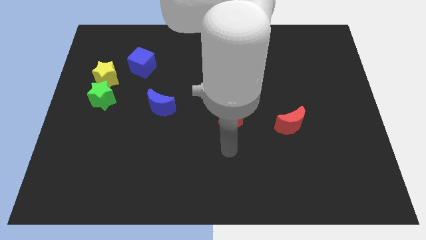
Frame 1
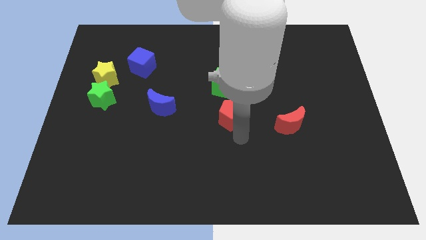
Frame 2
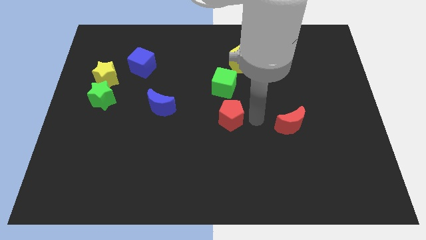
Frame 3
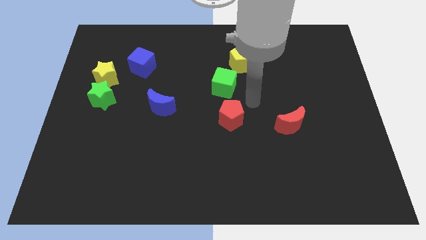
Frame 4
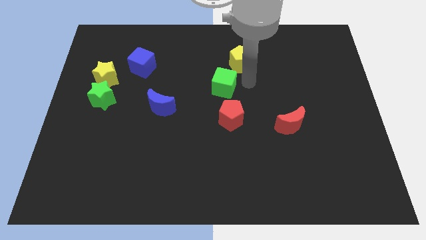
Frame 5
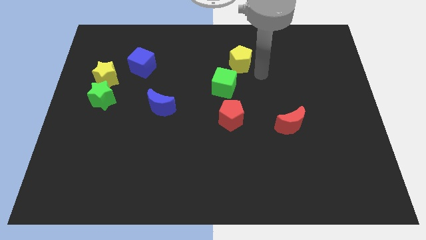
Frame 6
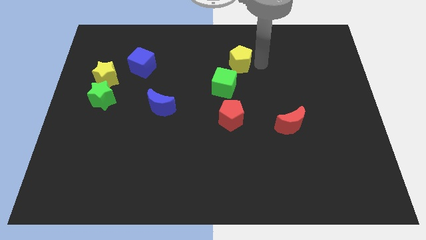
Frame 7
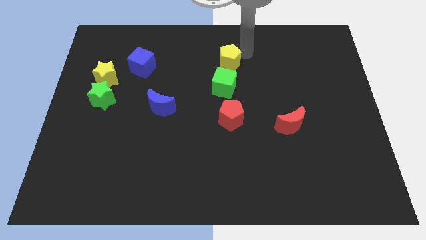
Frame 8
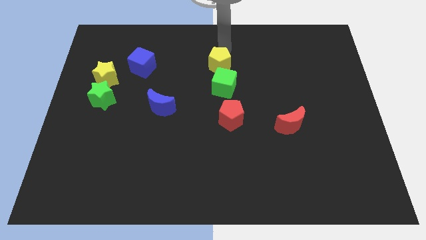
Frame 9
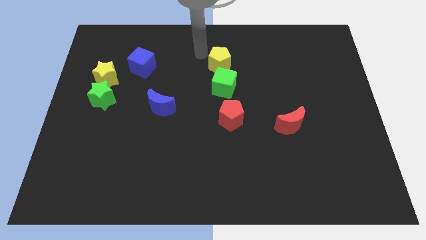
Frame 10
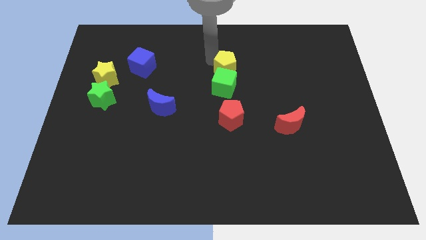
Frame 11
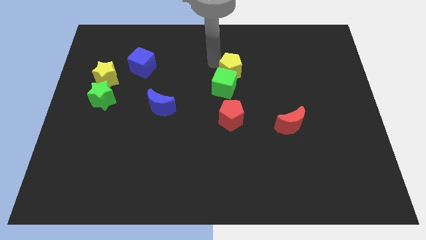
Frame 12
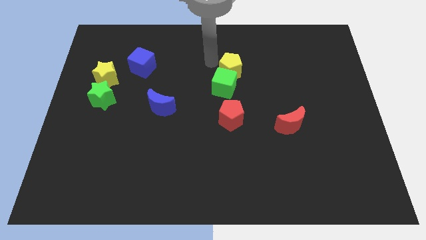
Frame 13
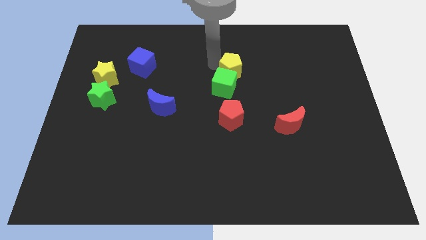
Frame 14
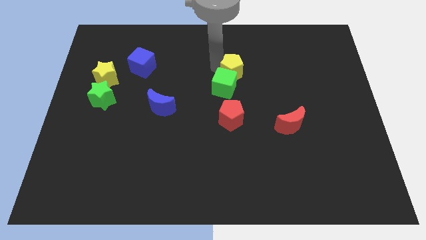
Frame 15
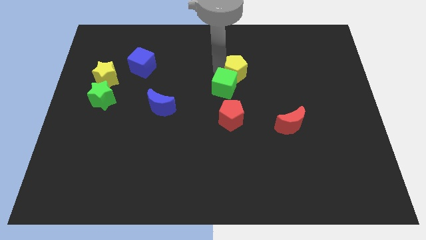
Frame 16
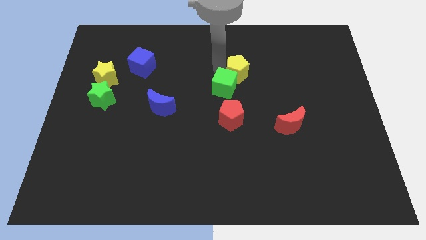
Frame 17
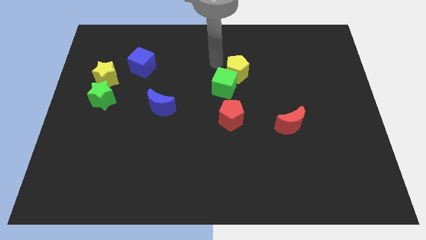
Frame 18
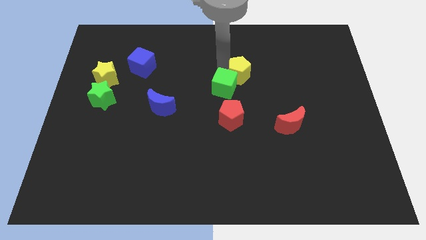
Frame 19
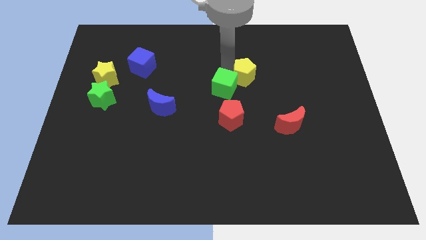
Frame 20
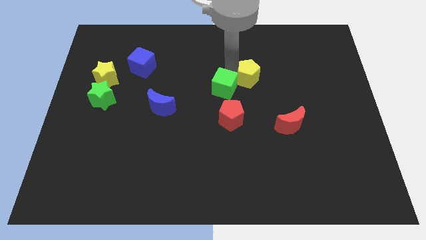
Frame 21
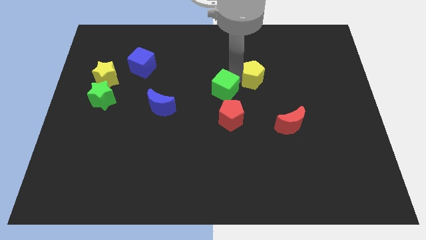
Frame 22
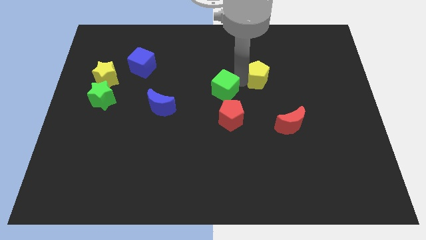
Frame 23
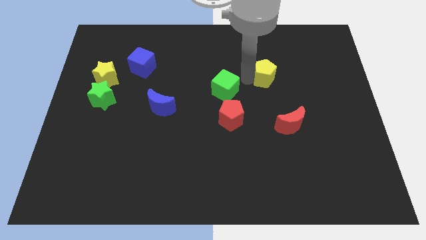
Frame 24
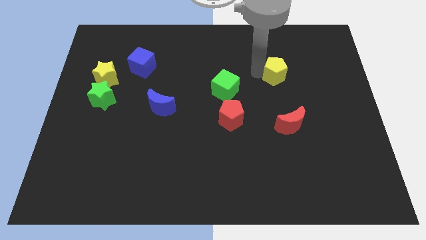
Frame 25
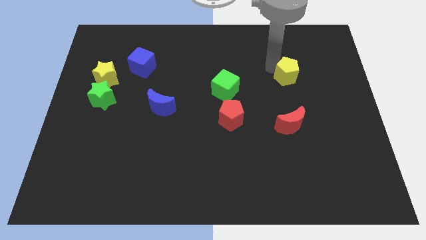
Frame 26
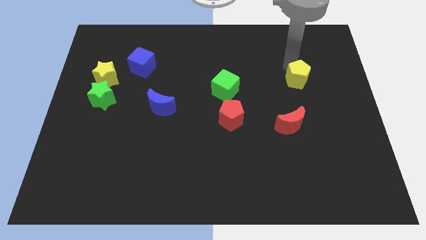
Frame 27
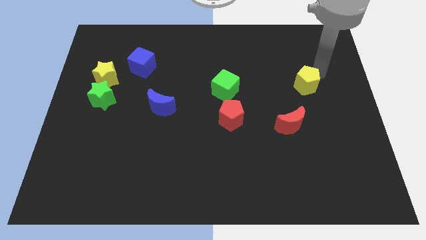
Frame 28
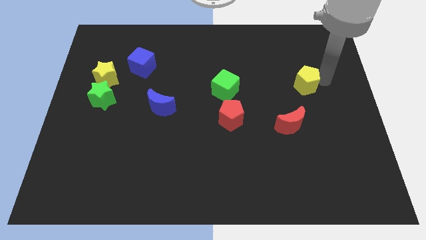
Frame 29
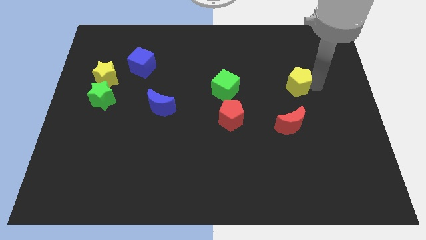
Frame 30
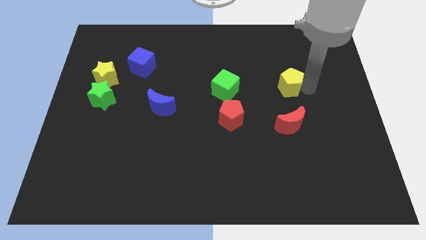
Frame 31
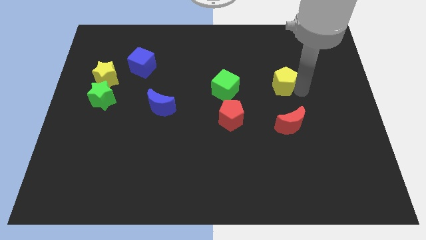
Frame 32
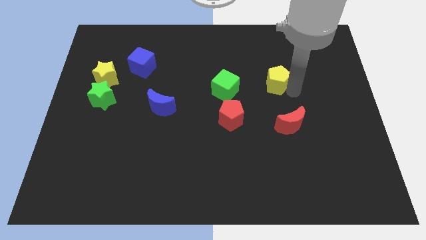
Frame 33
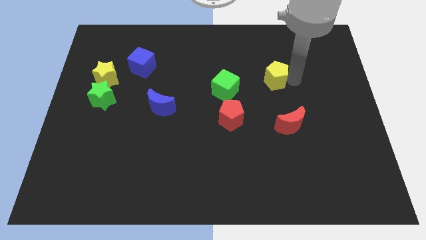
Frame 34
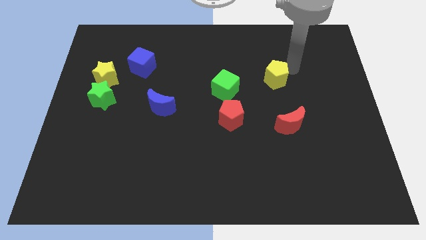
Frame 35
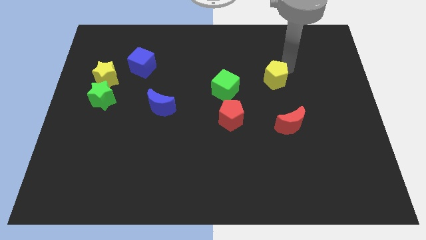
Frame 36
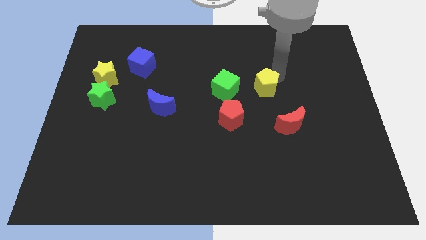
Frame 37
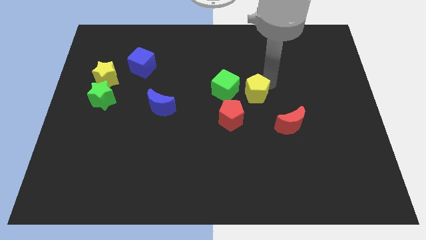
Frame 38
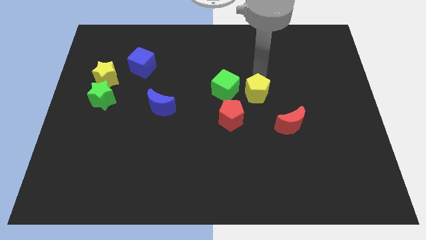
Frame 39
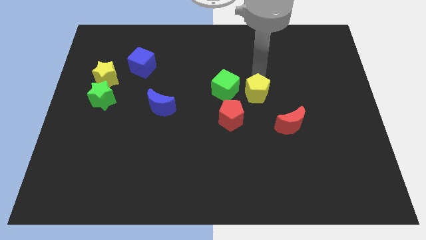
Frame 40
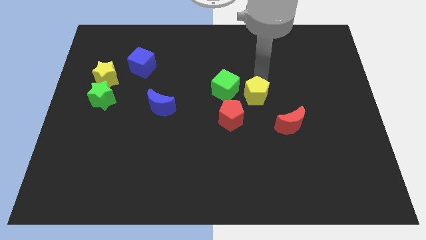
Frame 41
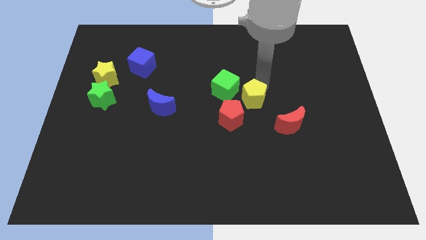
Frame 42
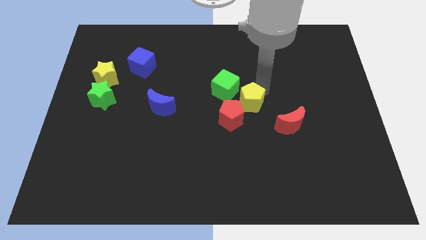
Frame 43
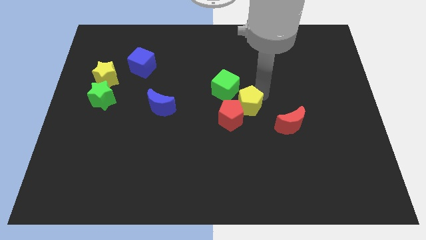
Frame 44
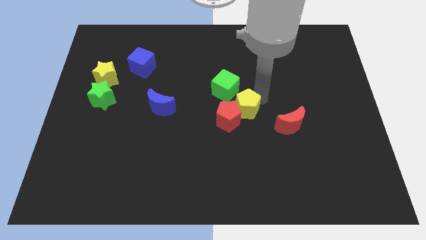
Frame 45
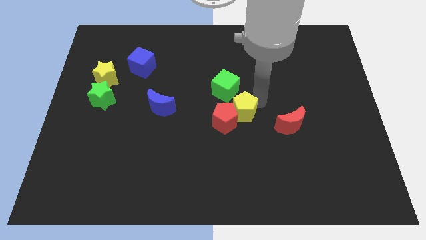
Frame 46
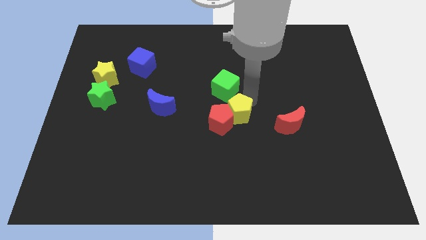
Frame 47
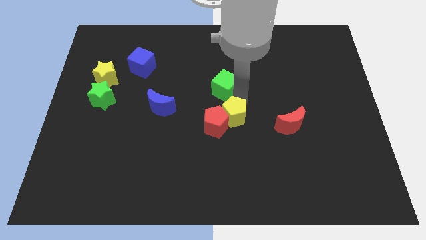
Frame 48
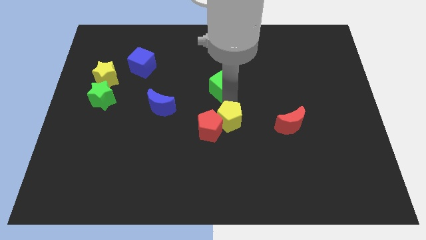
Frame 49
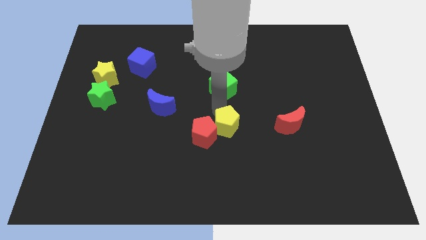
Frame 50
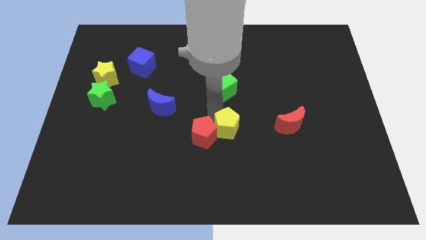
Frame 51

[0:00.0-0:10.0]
slide the yellow pentagon downwards

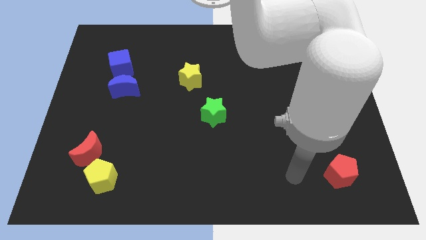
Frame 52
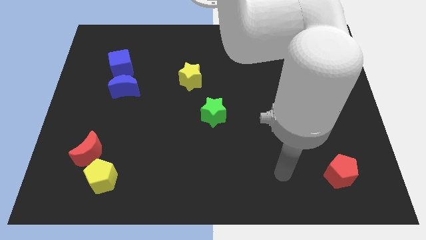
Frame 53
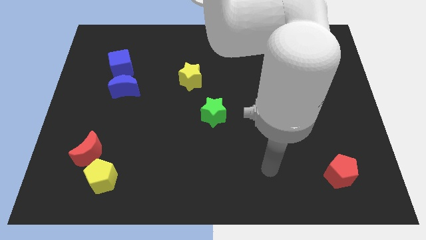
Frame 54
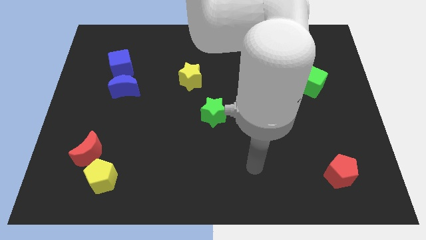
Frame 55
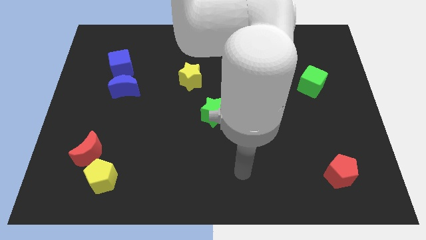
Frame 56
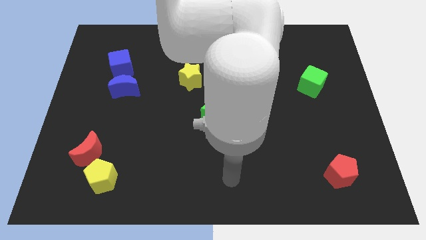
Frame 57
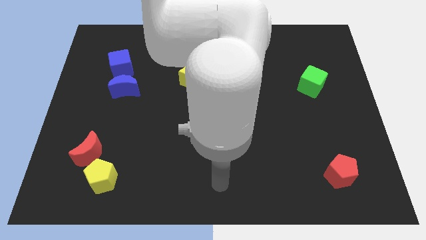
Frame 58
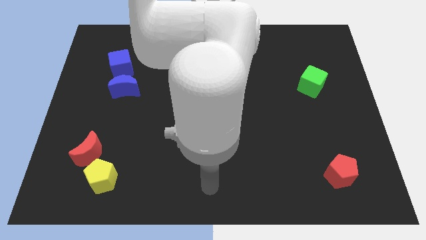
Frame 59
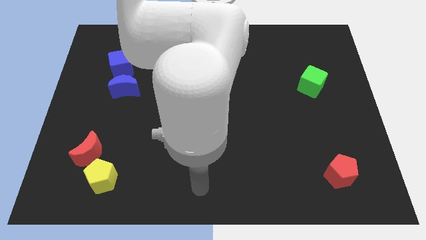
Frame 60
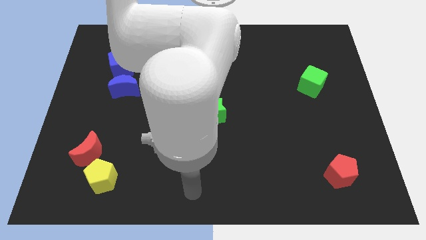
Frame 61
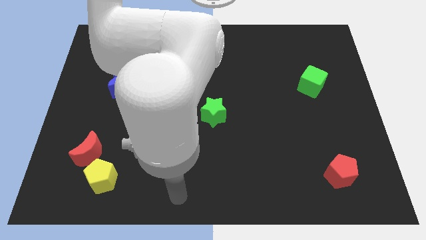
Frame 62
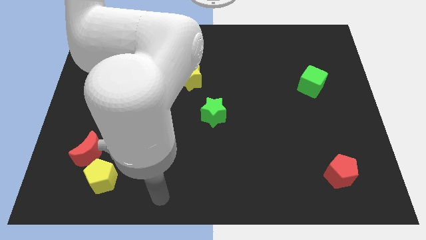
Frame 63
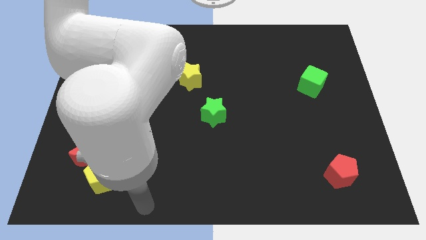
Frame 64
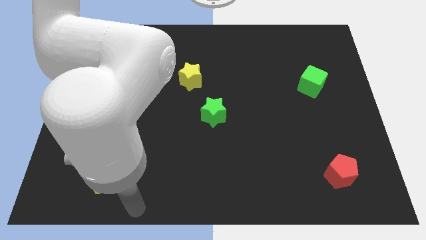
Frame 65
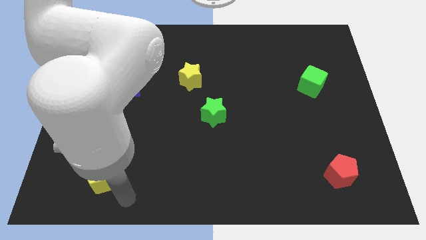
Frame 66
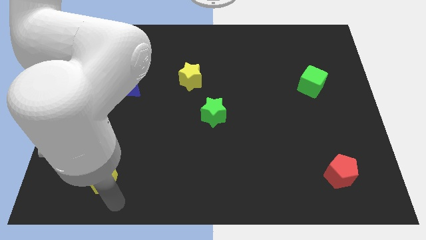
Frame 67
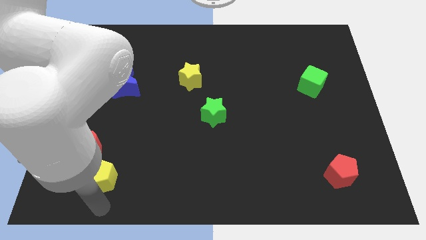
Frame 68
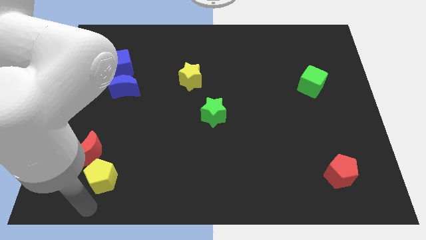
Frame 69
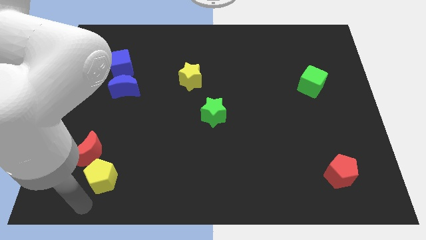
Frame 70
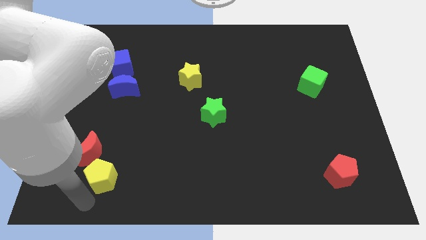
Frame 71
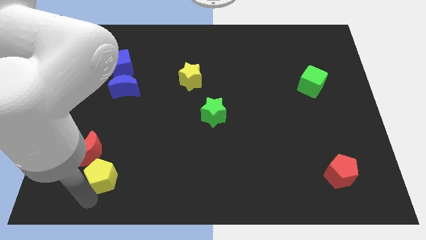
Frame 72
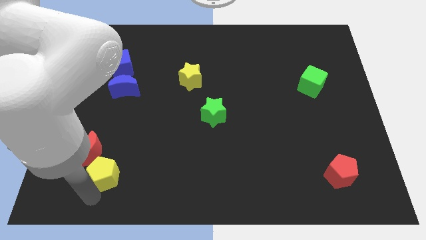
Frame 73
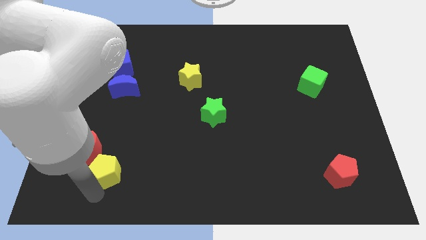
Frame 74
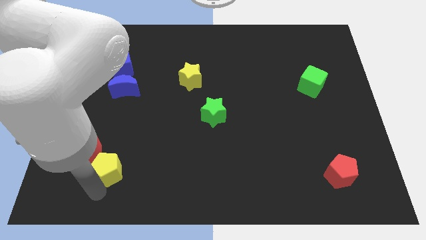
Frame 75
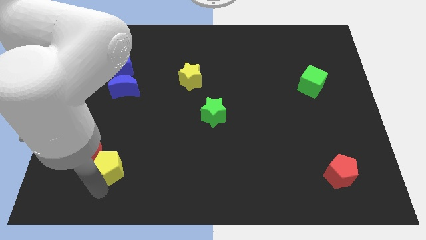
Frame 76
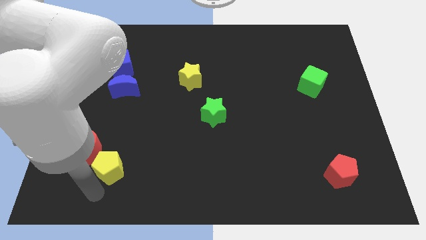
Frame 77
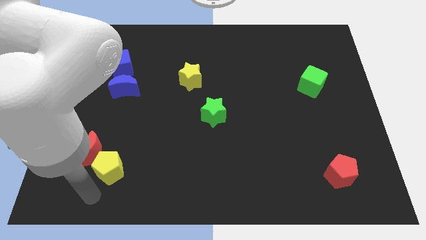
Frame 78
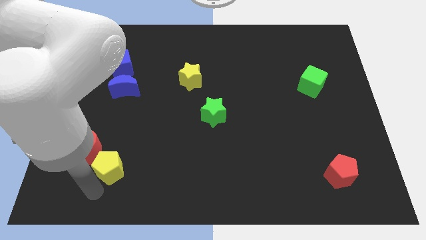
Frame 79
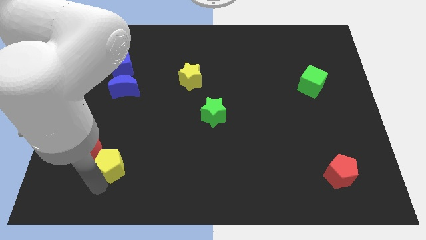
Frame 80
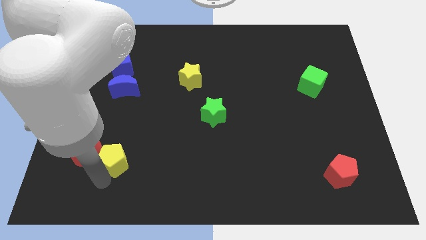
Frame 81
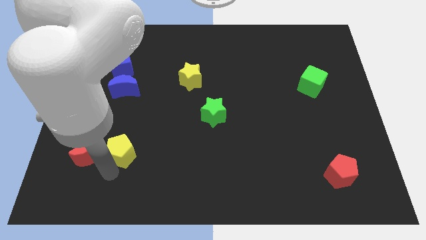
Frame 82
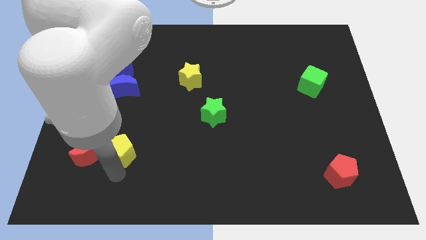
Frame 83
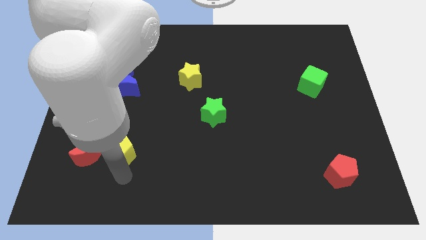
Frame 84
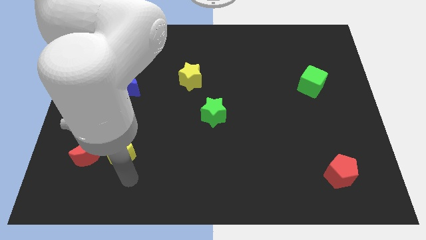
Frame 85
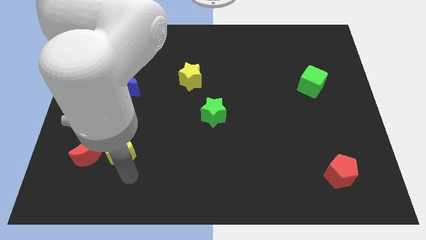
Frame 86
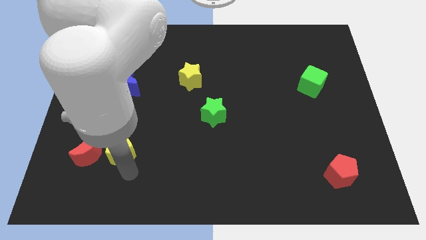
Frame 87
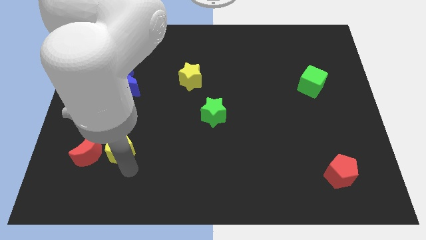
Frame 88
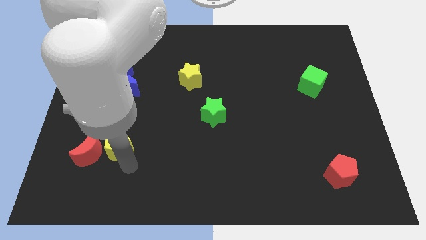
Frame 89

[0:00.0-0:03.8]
move the yellow pentagon somewhat up
